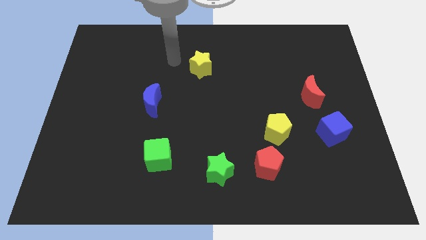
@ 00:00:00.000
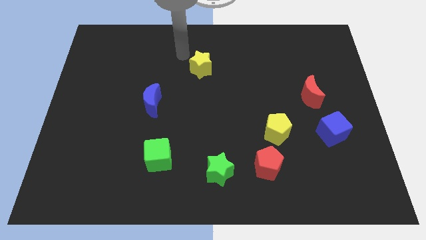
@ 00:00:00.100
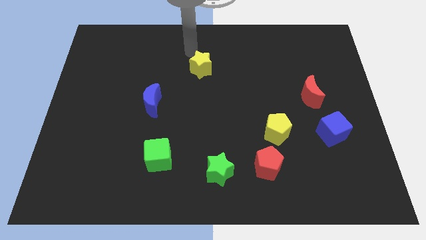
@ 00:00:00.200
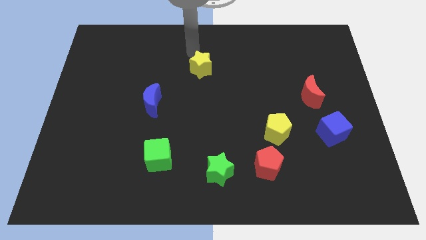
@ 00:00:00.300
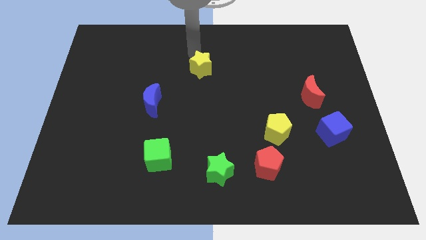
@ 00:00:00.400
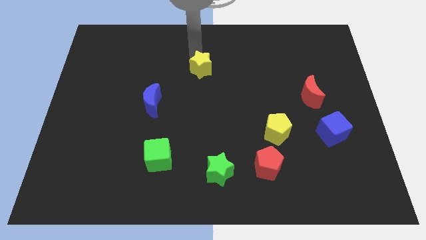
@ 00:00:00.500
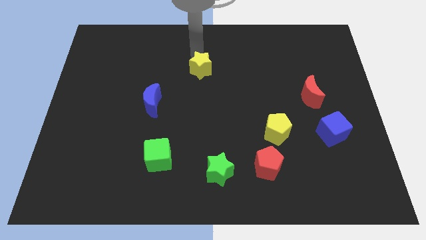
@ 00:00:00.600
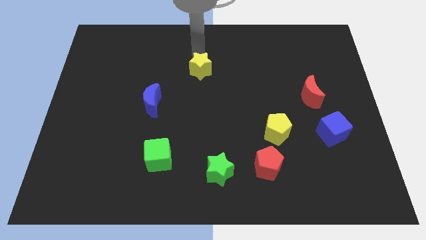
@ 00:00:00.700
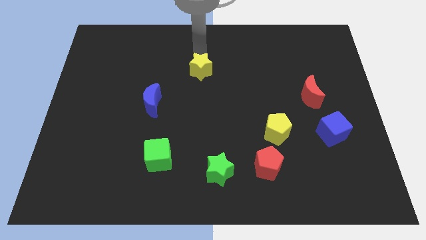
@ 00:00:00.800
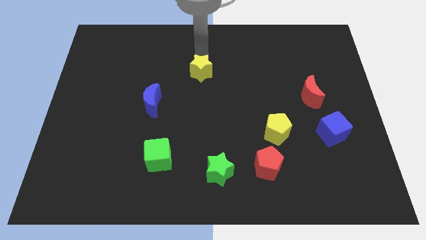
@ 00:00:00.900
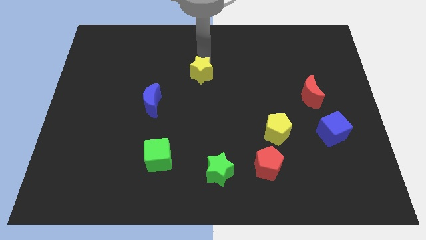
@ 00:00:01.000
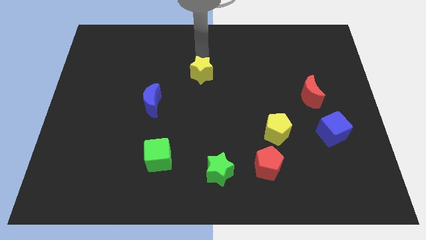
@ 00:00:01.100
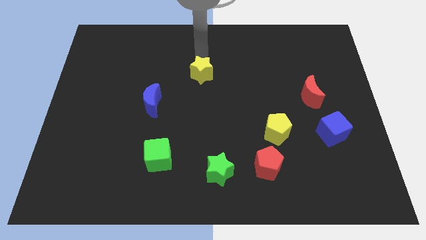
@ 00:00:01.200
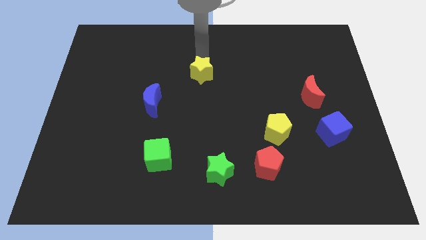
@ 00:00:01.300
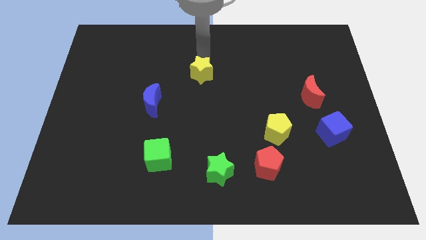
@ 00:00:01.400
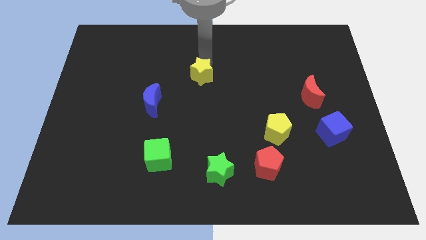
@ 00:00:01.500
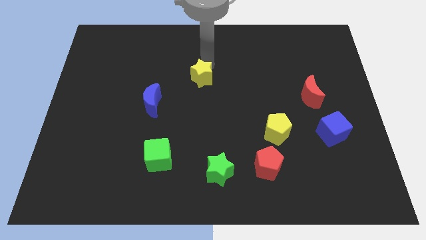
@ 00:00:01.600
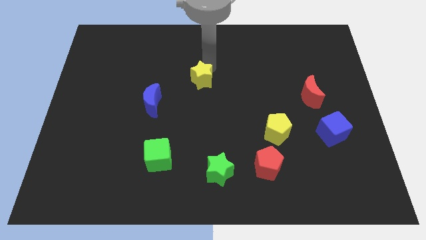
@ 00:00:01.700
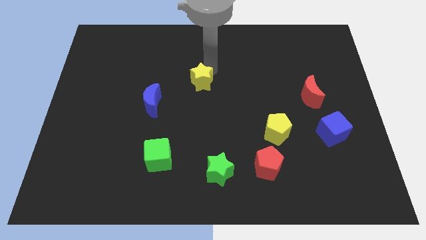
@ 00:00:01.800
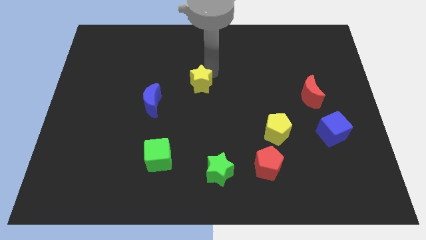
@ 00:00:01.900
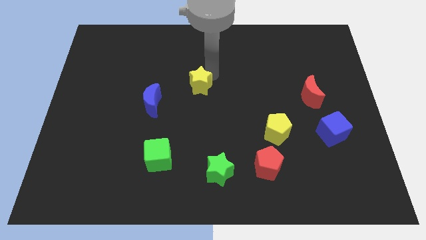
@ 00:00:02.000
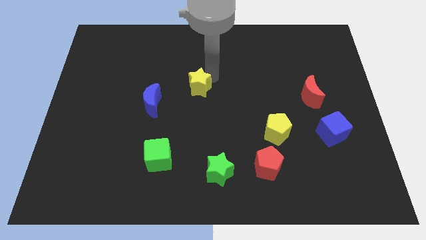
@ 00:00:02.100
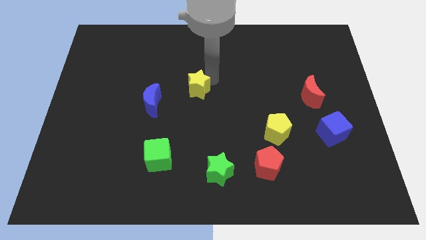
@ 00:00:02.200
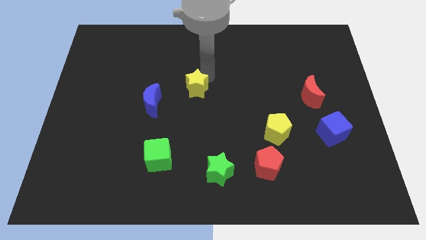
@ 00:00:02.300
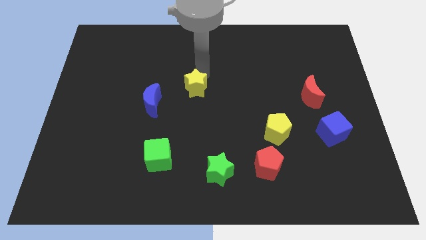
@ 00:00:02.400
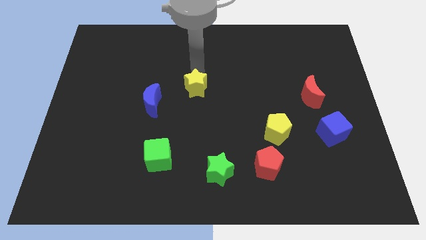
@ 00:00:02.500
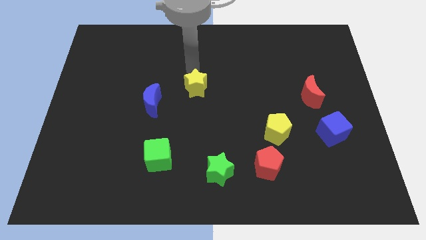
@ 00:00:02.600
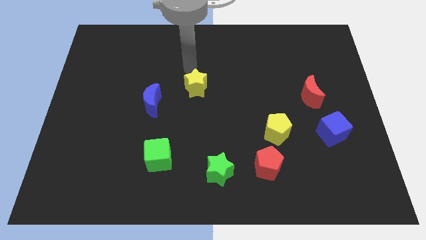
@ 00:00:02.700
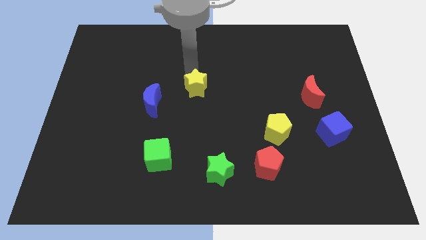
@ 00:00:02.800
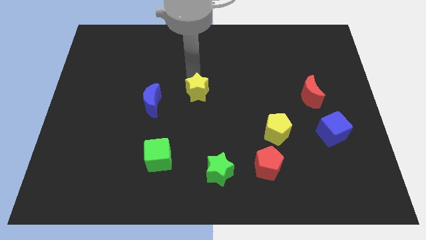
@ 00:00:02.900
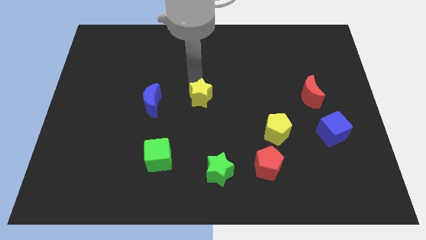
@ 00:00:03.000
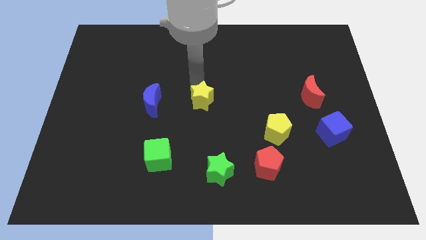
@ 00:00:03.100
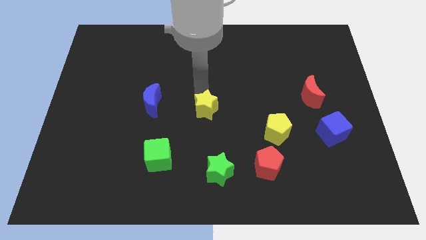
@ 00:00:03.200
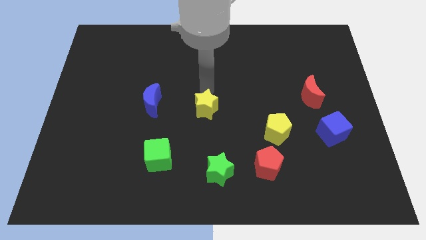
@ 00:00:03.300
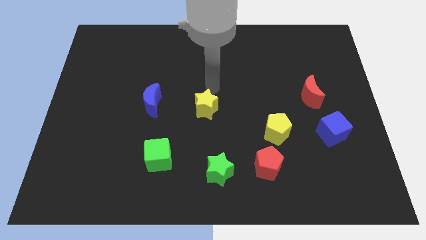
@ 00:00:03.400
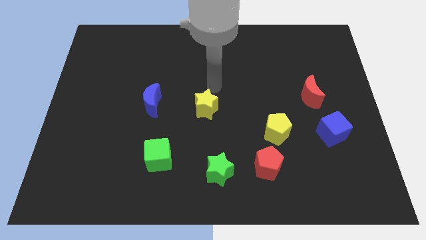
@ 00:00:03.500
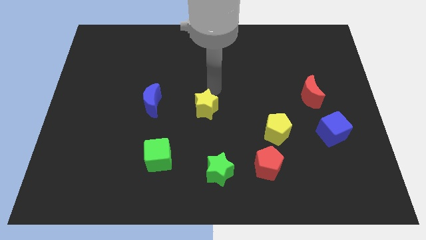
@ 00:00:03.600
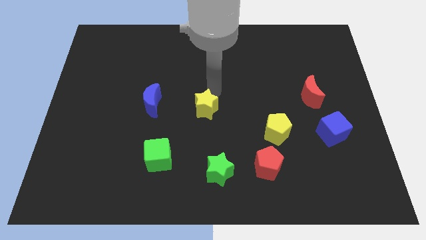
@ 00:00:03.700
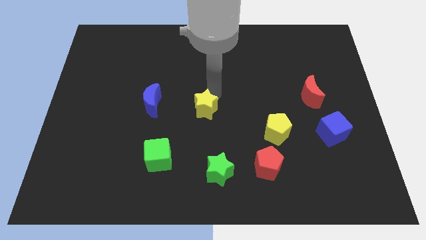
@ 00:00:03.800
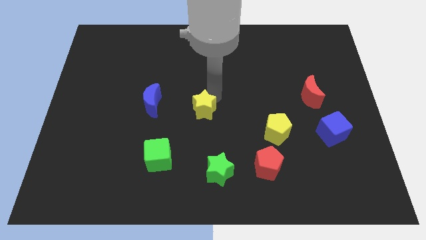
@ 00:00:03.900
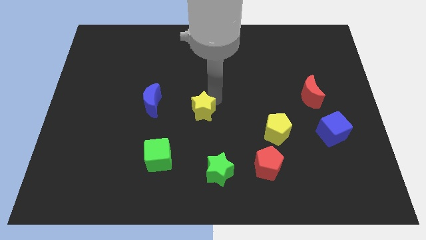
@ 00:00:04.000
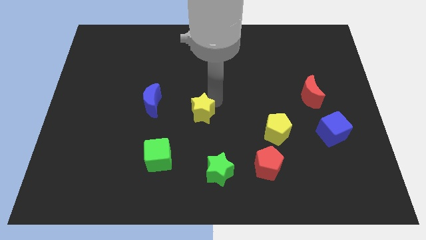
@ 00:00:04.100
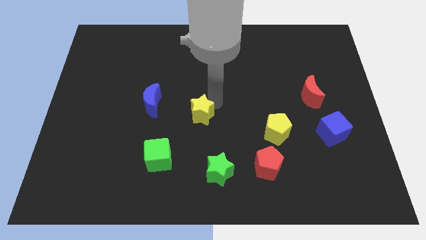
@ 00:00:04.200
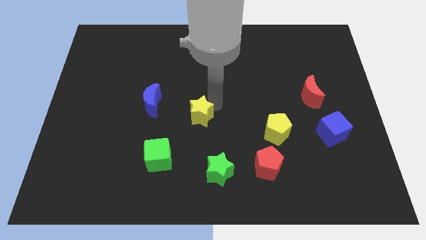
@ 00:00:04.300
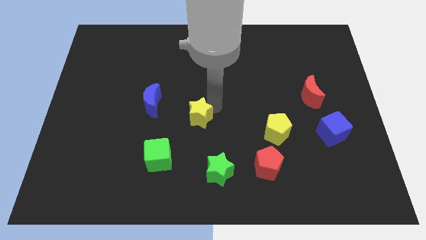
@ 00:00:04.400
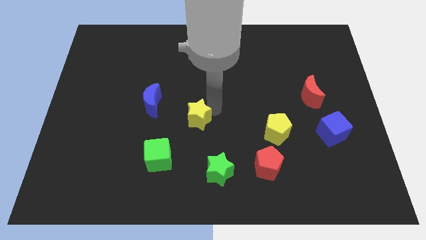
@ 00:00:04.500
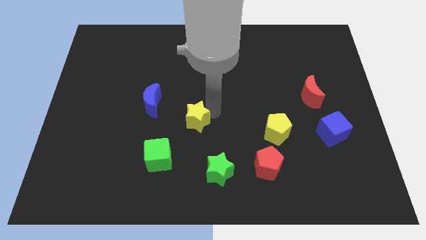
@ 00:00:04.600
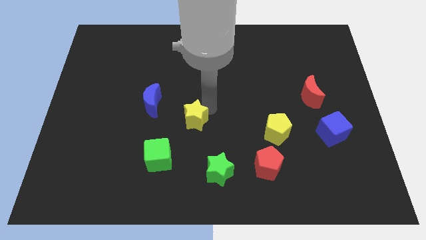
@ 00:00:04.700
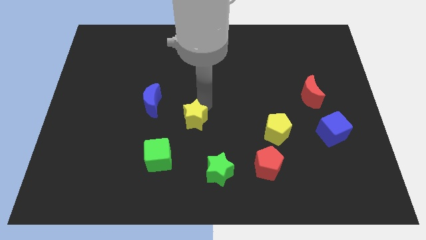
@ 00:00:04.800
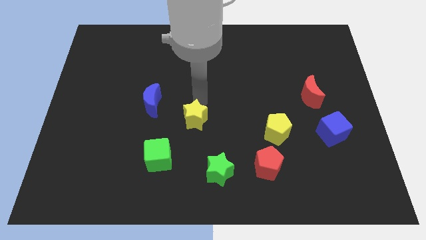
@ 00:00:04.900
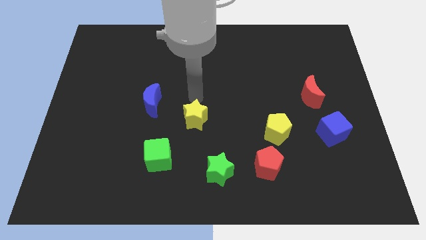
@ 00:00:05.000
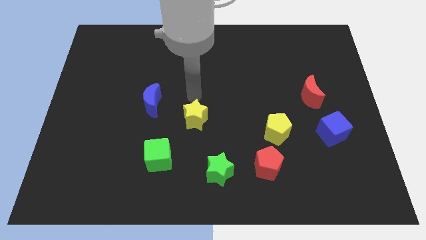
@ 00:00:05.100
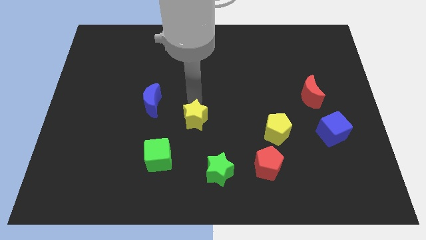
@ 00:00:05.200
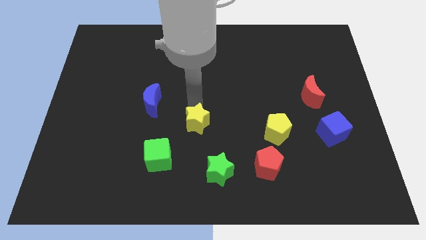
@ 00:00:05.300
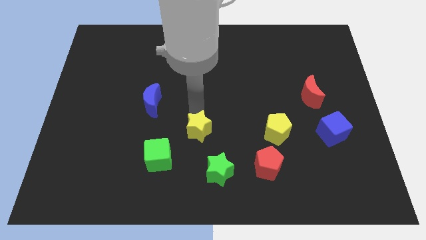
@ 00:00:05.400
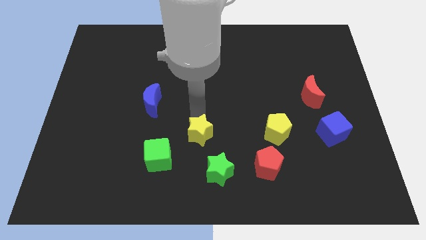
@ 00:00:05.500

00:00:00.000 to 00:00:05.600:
push the yellow star downwards

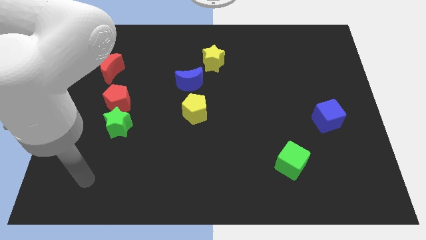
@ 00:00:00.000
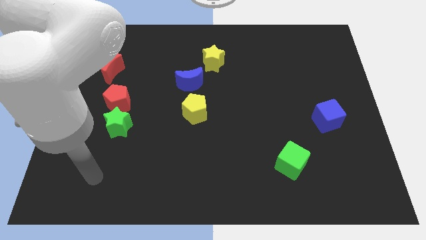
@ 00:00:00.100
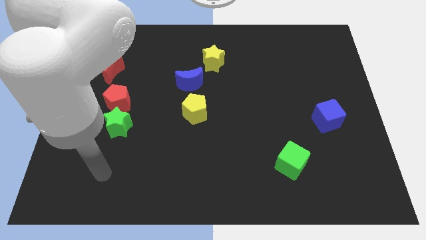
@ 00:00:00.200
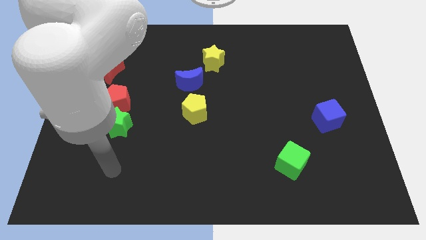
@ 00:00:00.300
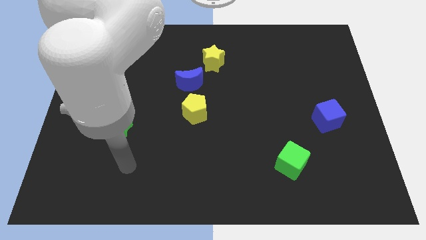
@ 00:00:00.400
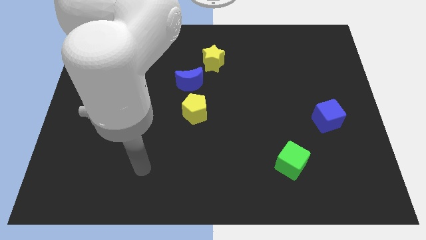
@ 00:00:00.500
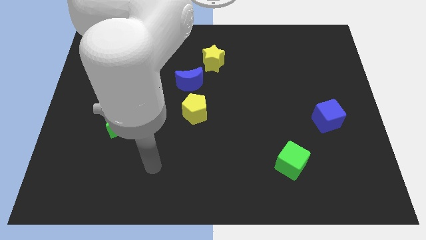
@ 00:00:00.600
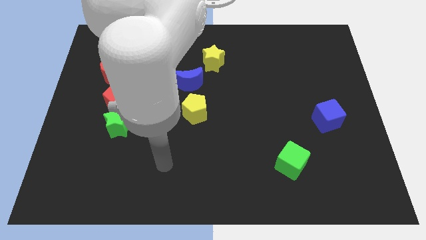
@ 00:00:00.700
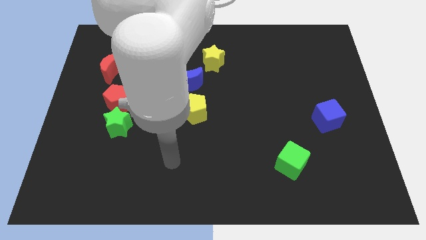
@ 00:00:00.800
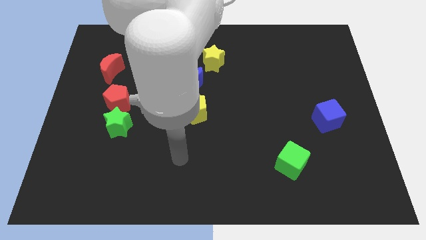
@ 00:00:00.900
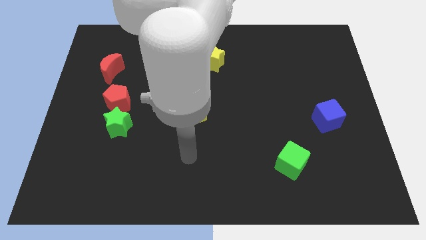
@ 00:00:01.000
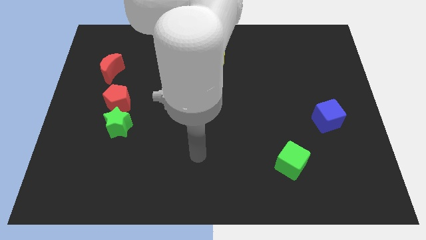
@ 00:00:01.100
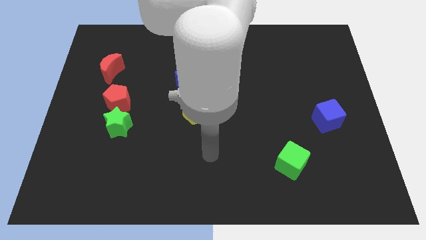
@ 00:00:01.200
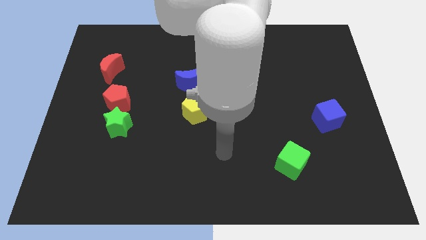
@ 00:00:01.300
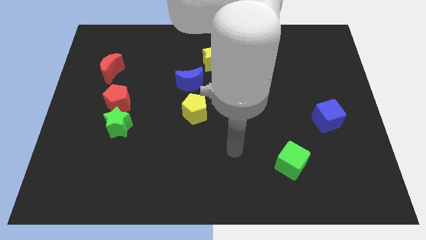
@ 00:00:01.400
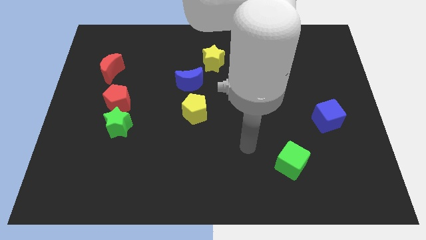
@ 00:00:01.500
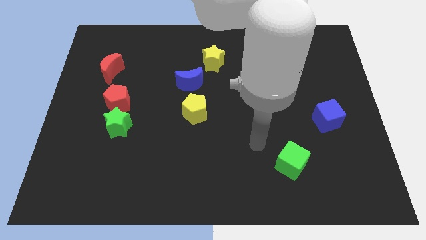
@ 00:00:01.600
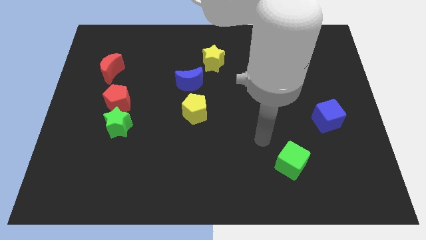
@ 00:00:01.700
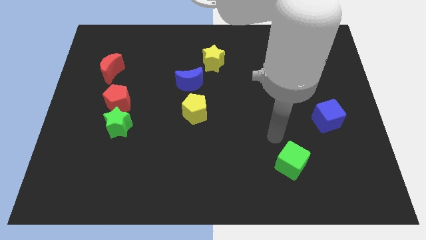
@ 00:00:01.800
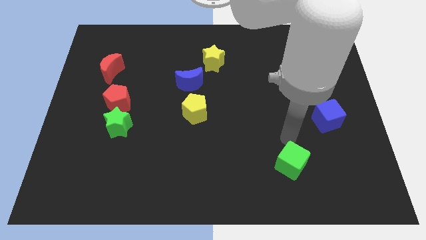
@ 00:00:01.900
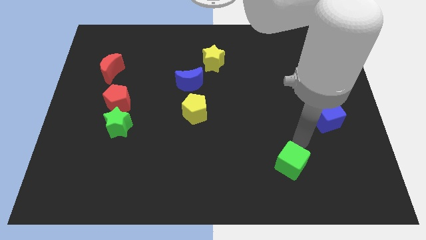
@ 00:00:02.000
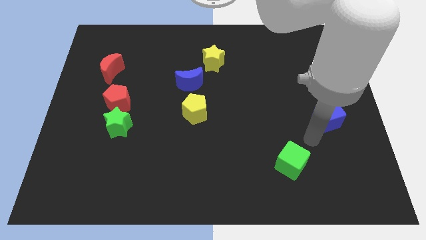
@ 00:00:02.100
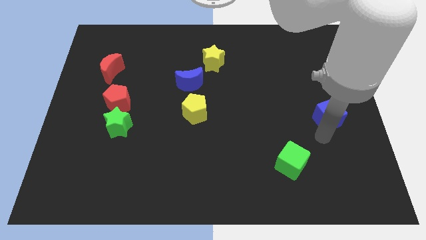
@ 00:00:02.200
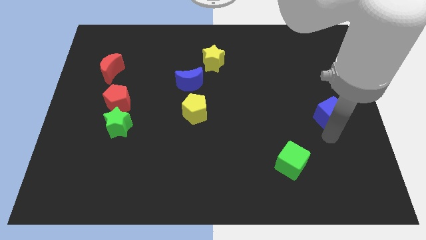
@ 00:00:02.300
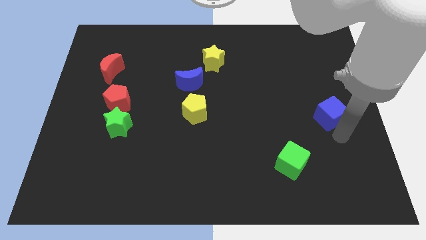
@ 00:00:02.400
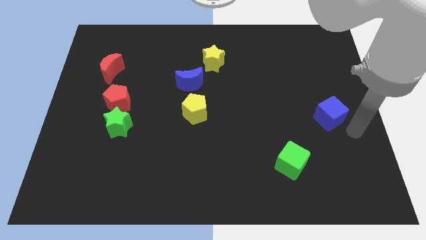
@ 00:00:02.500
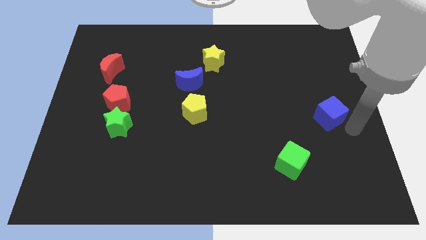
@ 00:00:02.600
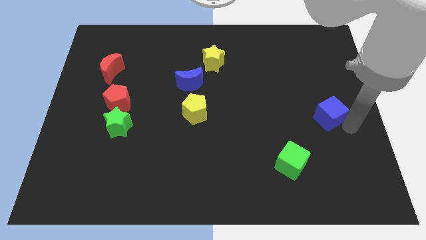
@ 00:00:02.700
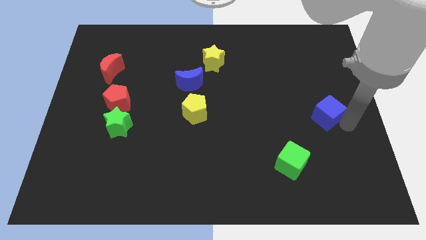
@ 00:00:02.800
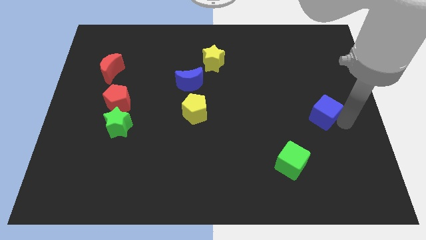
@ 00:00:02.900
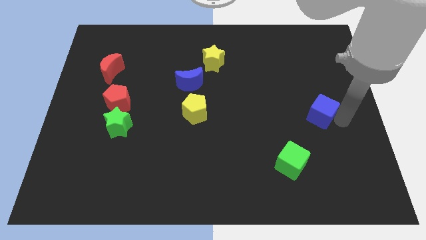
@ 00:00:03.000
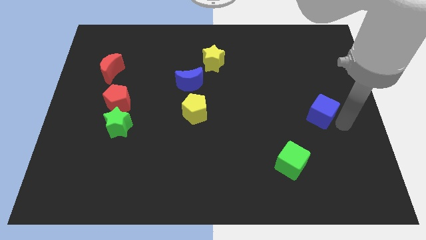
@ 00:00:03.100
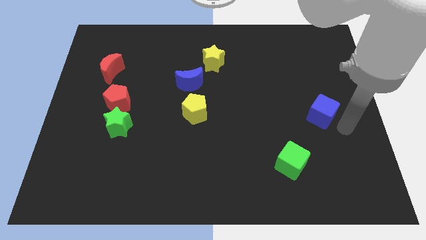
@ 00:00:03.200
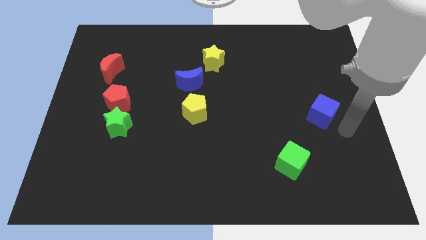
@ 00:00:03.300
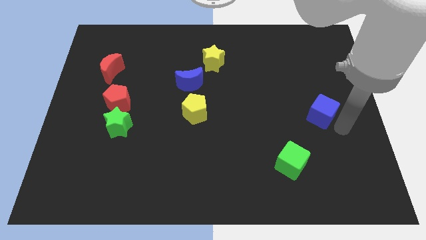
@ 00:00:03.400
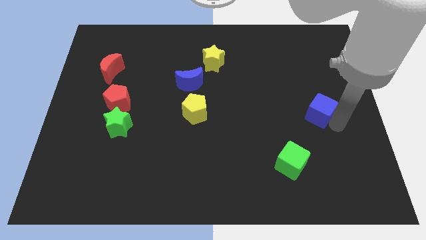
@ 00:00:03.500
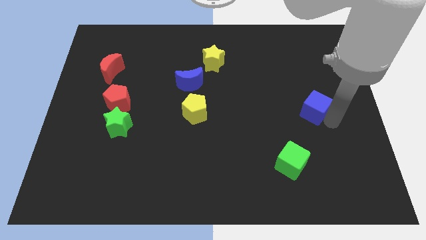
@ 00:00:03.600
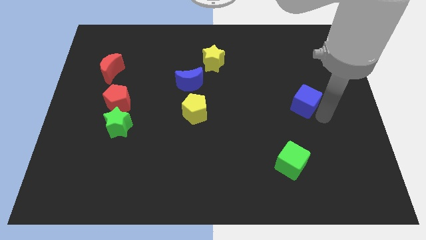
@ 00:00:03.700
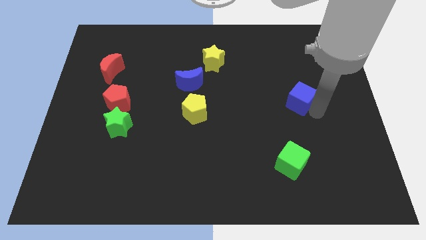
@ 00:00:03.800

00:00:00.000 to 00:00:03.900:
slide the blue cube up and then left slightly
